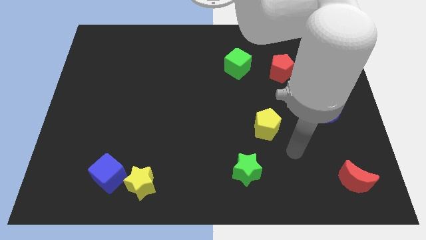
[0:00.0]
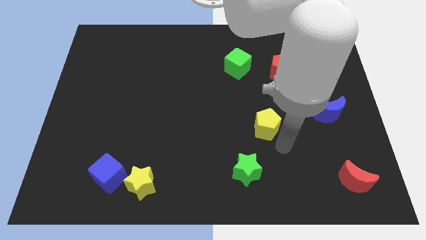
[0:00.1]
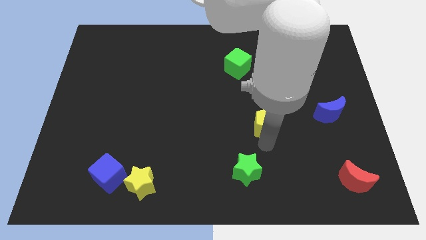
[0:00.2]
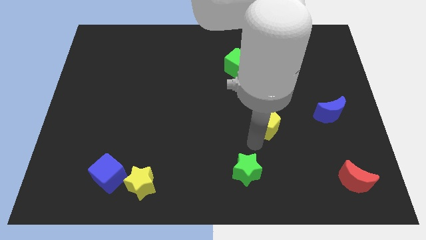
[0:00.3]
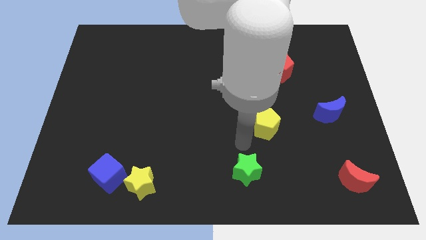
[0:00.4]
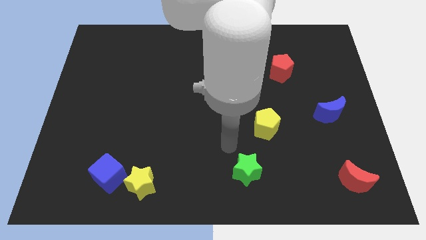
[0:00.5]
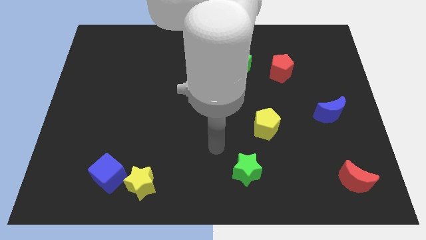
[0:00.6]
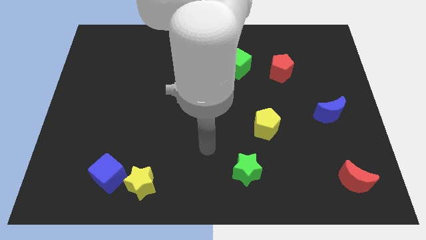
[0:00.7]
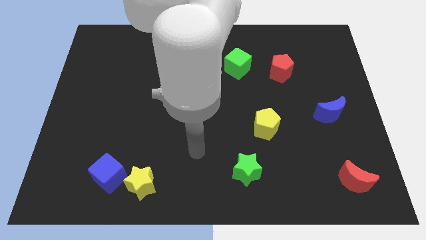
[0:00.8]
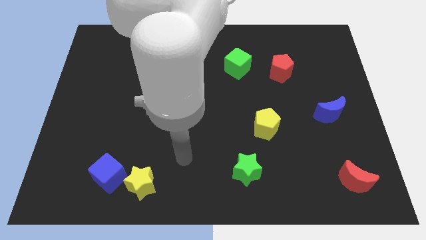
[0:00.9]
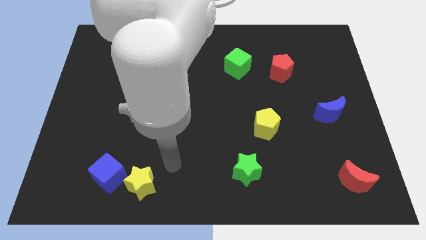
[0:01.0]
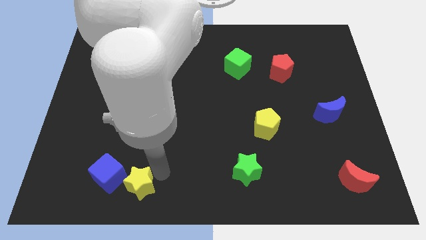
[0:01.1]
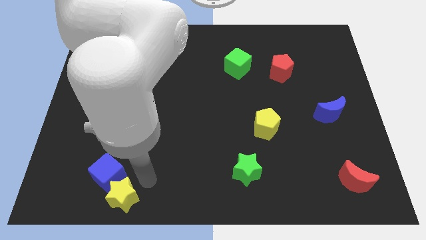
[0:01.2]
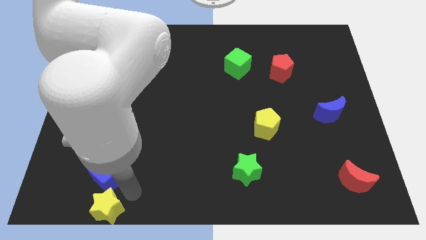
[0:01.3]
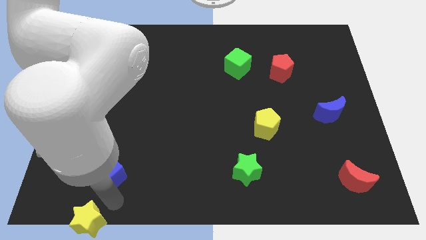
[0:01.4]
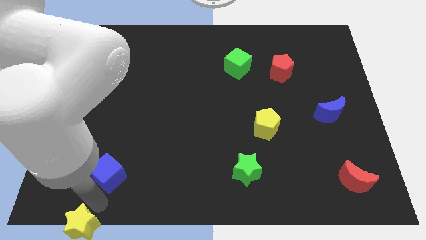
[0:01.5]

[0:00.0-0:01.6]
move the blue cube away from the yellow star

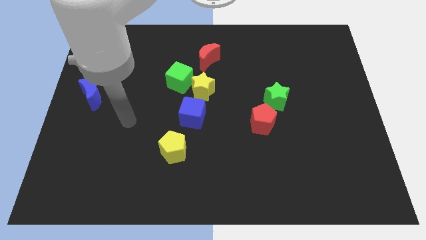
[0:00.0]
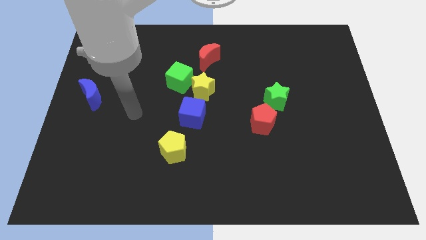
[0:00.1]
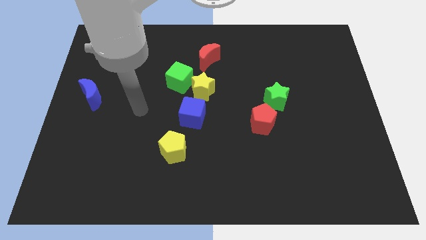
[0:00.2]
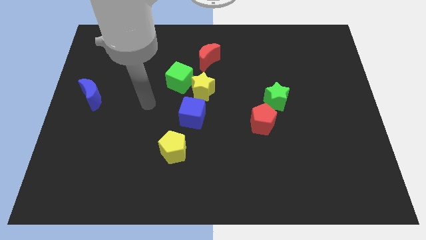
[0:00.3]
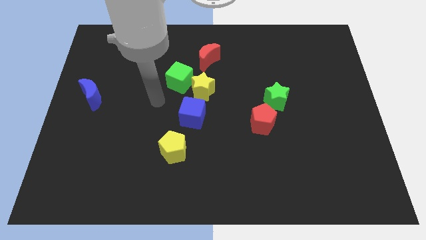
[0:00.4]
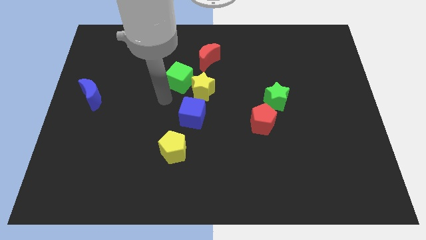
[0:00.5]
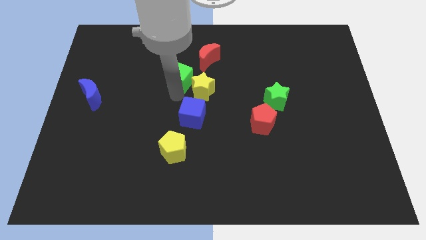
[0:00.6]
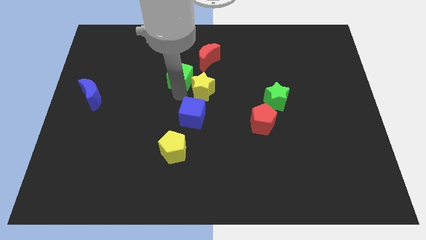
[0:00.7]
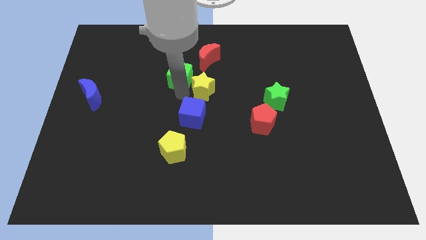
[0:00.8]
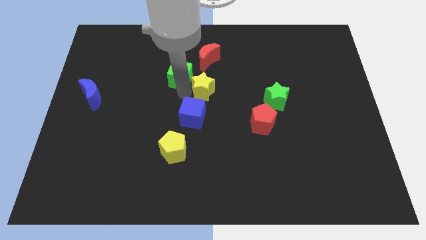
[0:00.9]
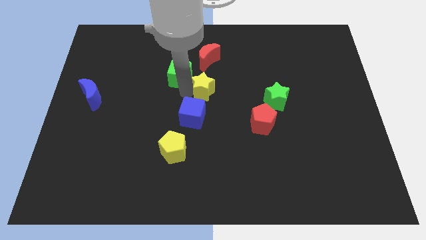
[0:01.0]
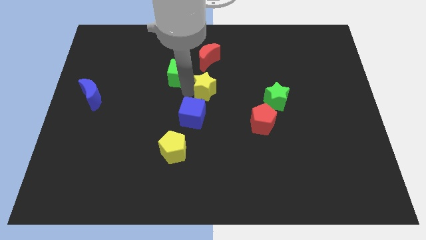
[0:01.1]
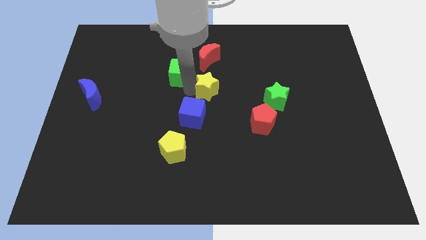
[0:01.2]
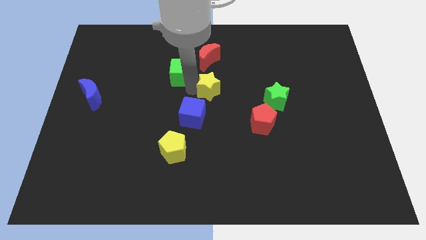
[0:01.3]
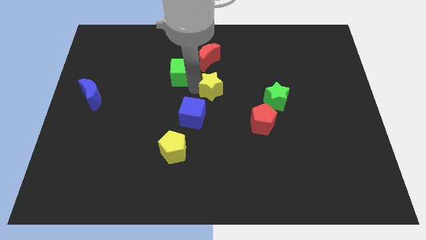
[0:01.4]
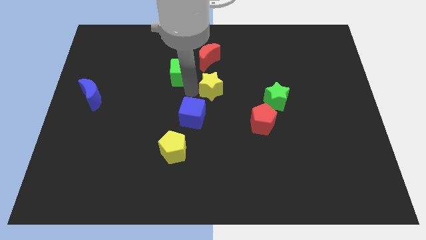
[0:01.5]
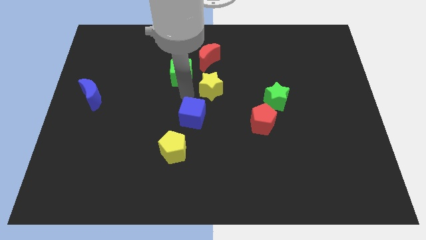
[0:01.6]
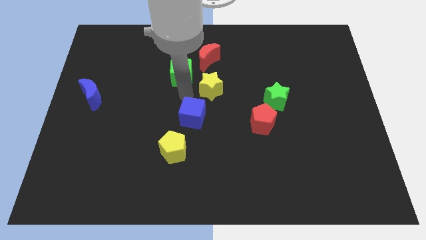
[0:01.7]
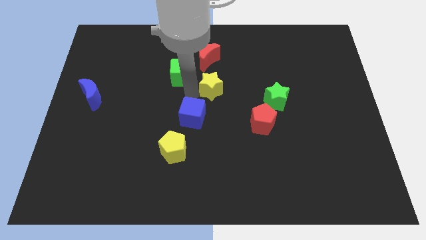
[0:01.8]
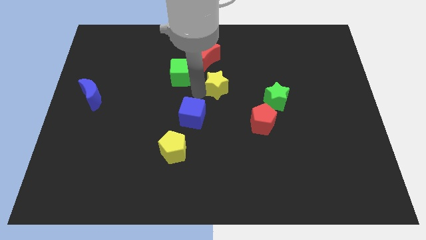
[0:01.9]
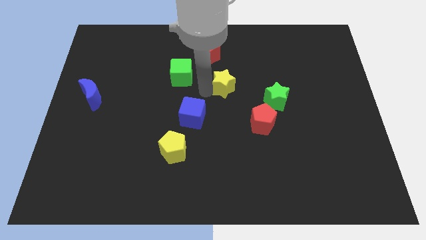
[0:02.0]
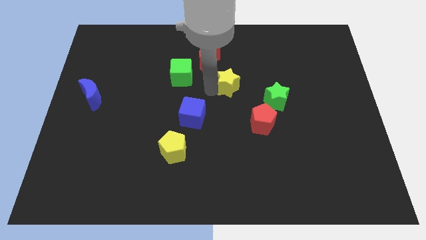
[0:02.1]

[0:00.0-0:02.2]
pull the yellow star apart from the green cube and blue cube

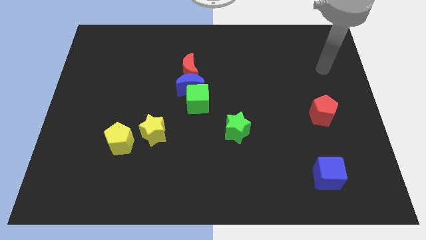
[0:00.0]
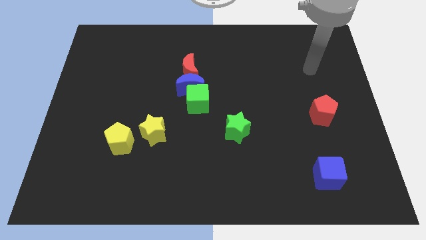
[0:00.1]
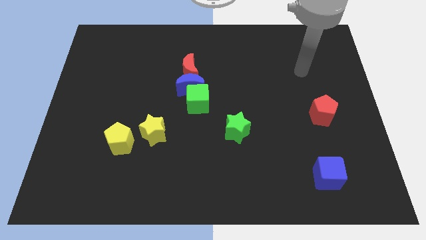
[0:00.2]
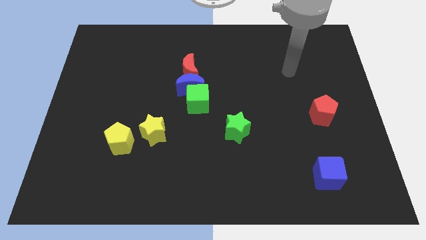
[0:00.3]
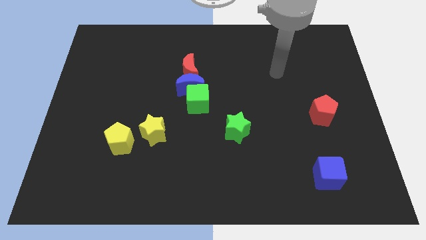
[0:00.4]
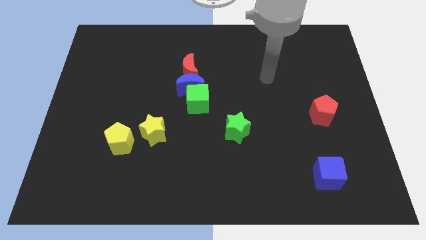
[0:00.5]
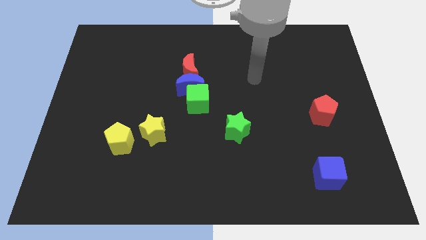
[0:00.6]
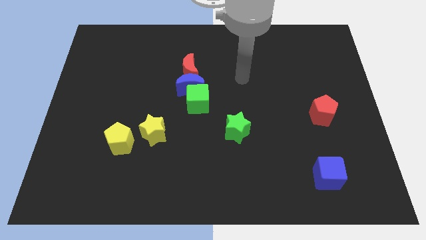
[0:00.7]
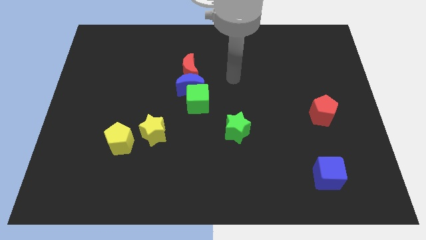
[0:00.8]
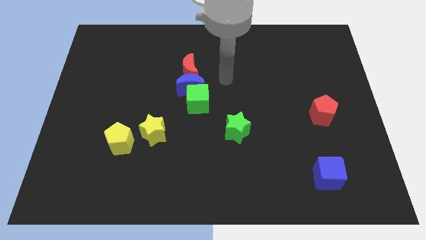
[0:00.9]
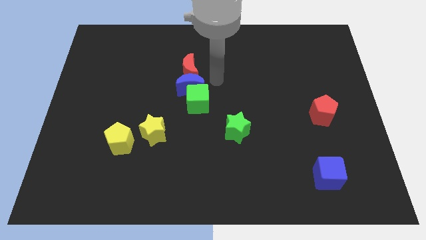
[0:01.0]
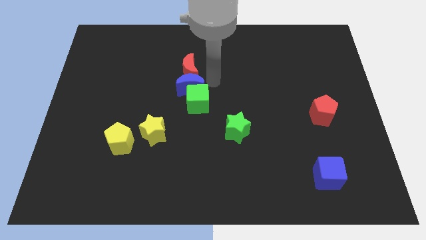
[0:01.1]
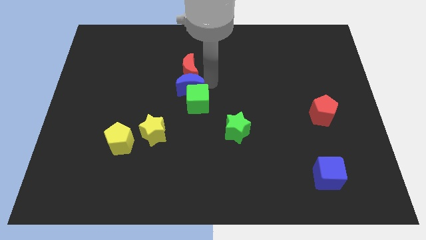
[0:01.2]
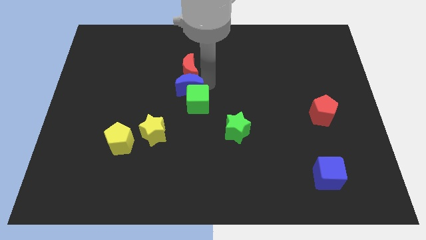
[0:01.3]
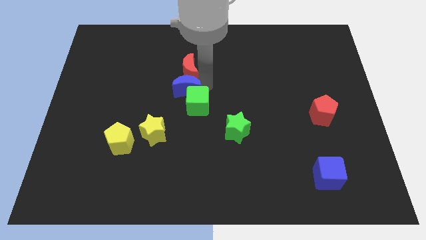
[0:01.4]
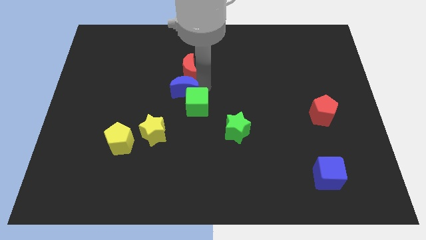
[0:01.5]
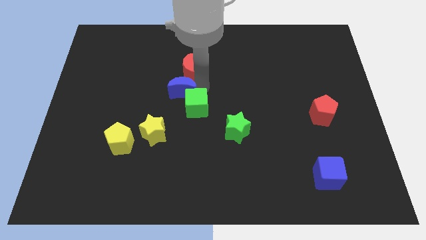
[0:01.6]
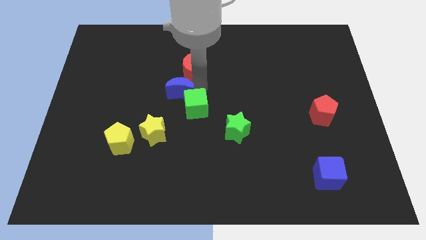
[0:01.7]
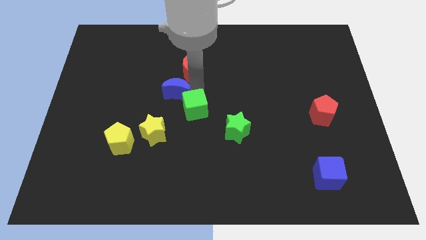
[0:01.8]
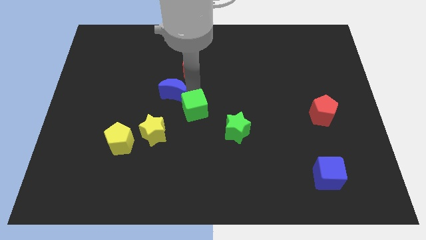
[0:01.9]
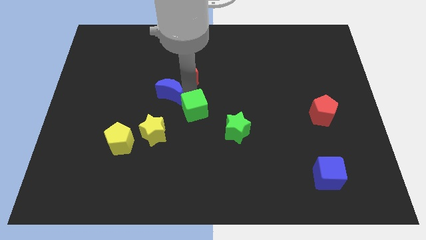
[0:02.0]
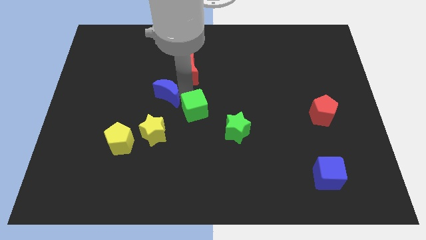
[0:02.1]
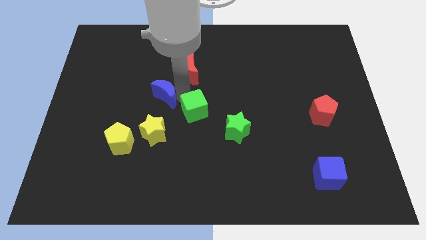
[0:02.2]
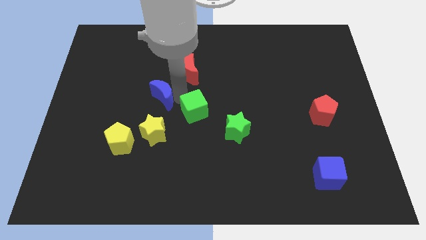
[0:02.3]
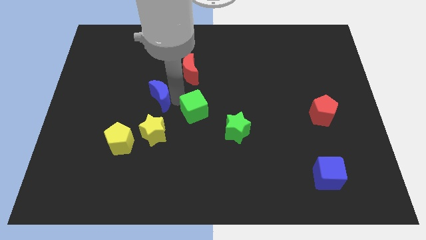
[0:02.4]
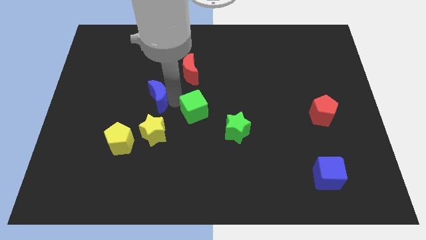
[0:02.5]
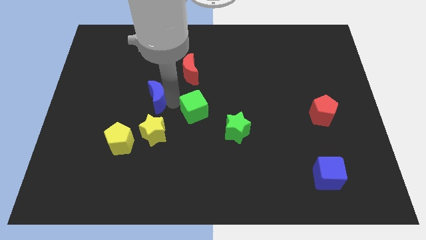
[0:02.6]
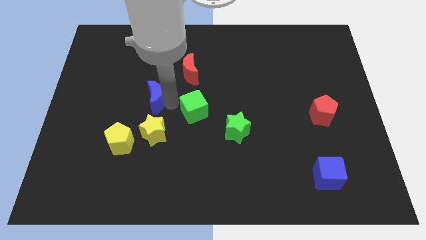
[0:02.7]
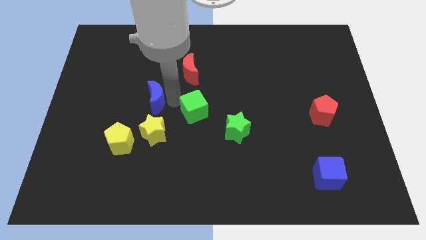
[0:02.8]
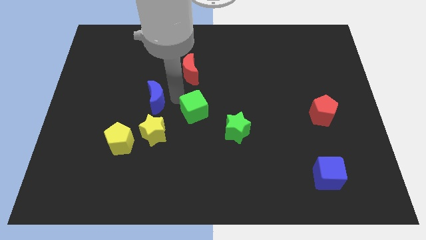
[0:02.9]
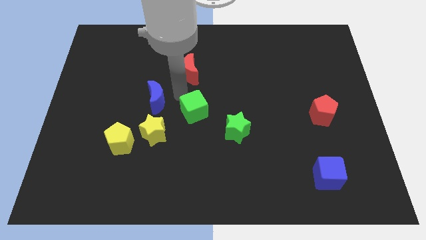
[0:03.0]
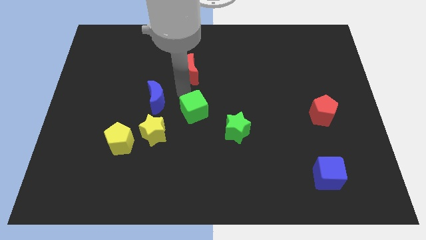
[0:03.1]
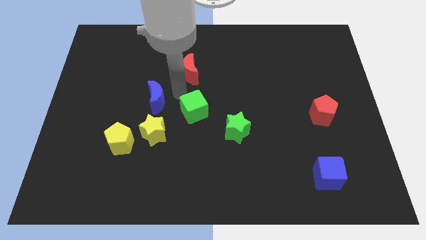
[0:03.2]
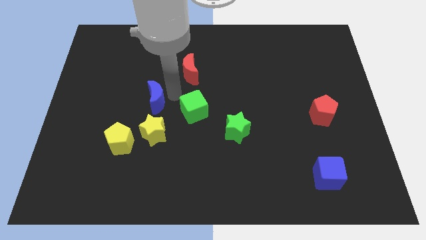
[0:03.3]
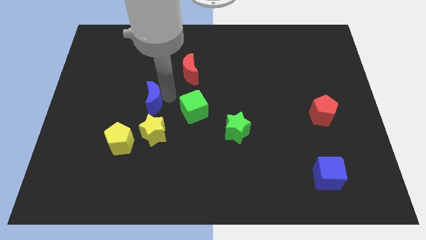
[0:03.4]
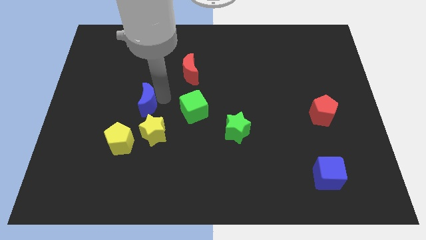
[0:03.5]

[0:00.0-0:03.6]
move the blue moon away from the green cube and red moon

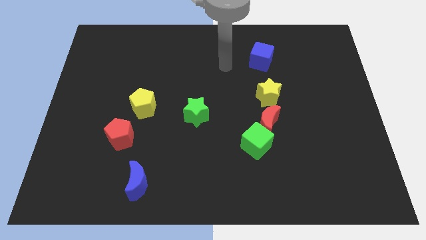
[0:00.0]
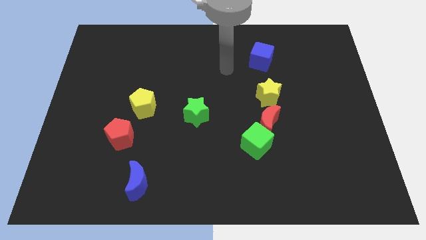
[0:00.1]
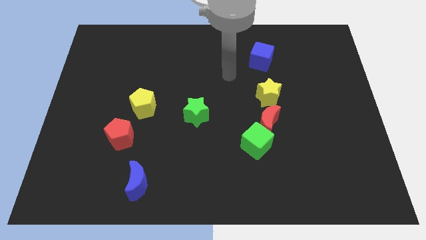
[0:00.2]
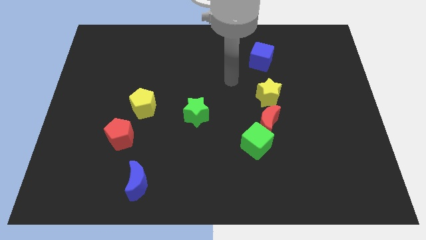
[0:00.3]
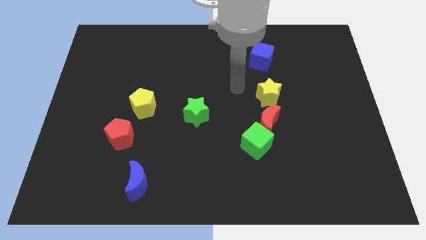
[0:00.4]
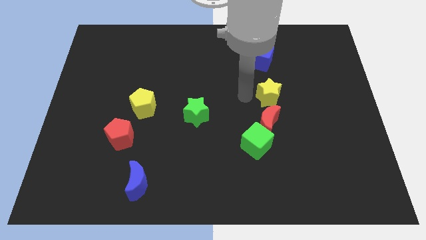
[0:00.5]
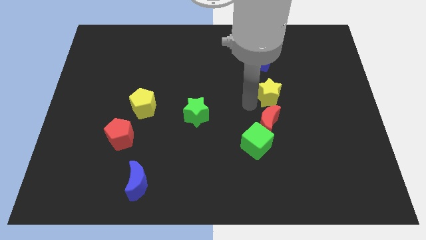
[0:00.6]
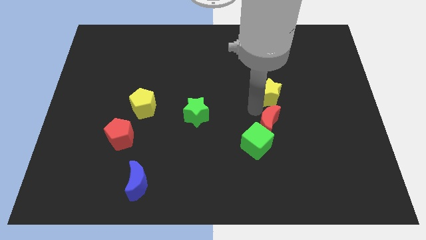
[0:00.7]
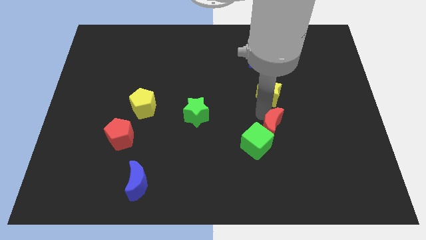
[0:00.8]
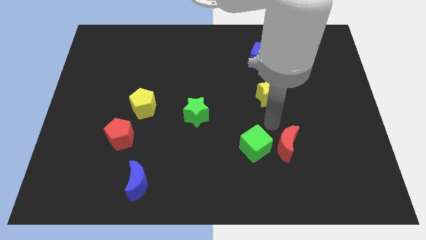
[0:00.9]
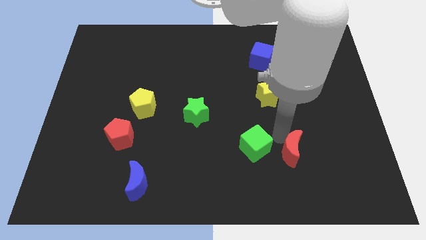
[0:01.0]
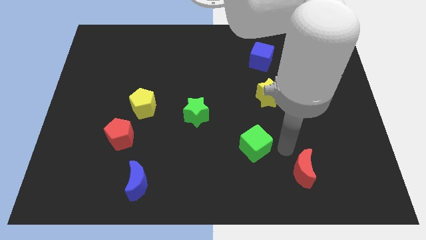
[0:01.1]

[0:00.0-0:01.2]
move the green cube away from the red moon

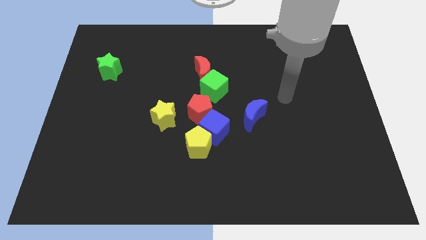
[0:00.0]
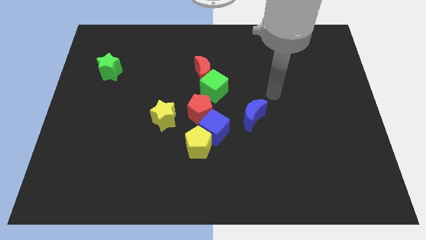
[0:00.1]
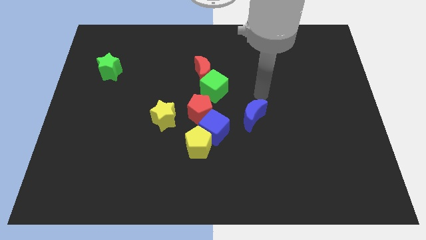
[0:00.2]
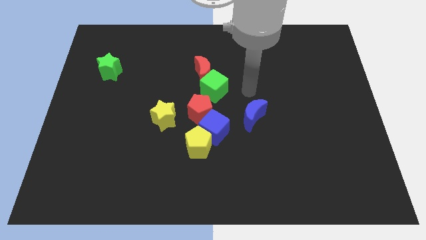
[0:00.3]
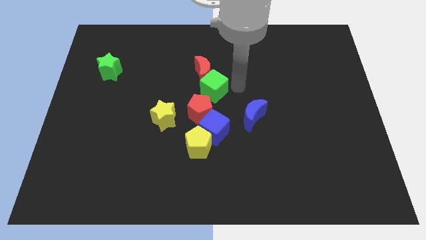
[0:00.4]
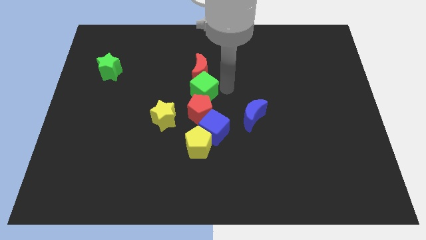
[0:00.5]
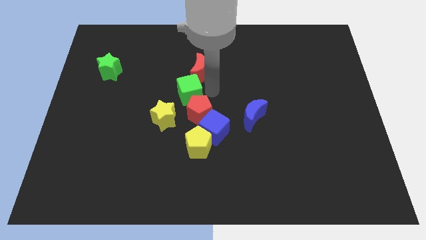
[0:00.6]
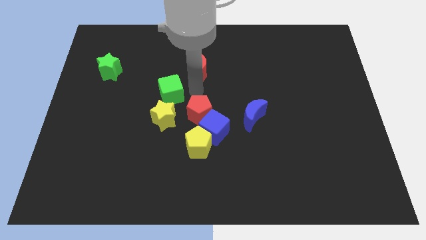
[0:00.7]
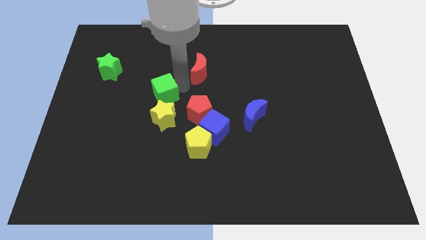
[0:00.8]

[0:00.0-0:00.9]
separate the red moon from the green cube
